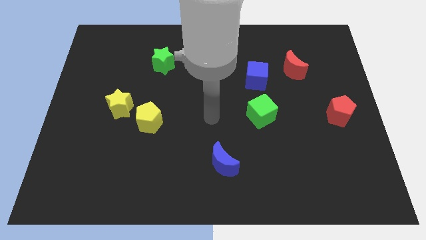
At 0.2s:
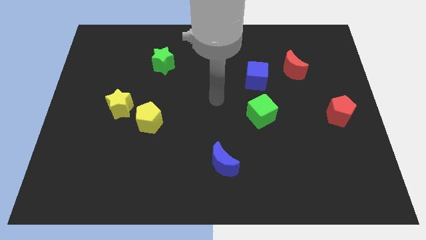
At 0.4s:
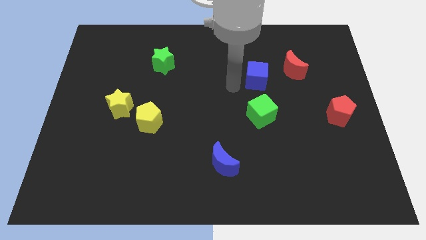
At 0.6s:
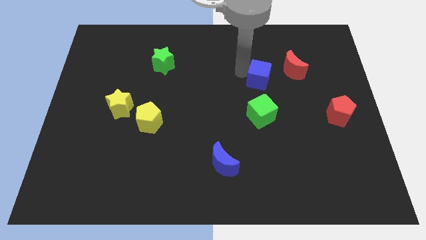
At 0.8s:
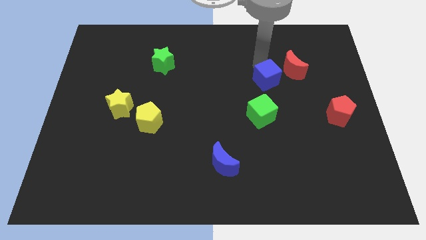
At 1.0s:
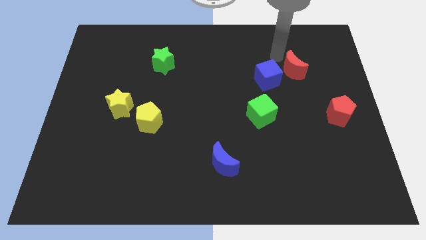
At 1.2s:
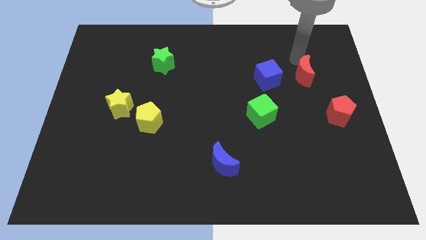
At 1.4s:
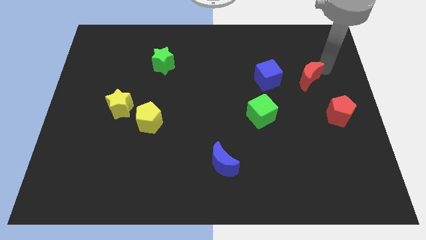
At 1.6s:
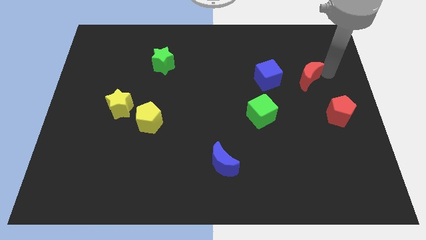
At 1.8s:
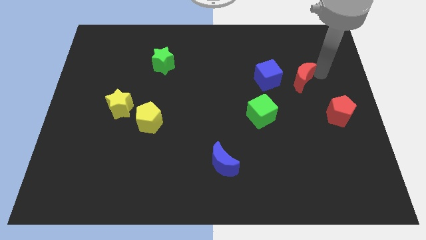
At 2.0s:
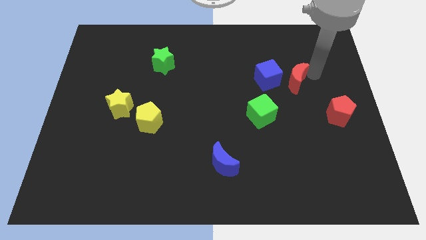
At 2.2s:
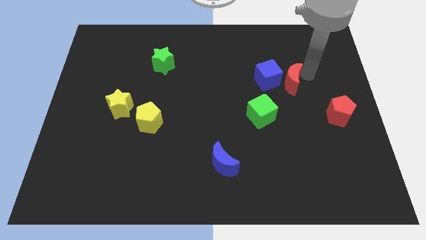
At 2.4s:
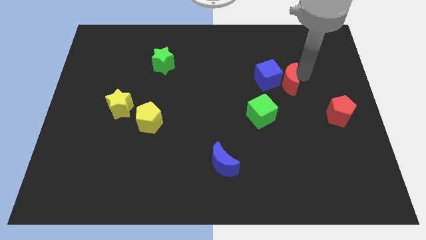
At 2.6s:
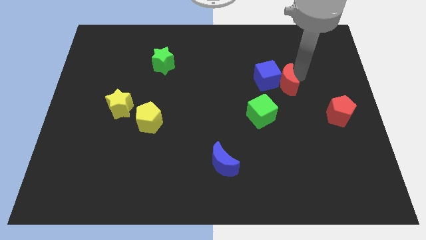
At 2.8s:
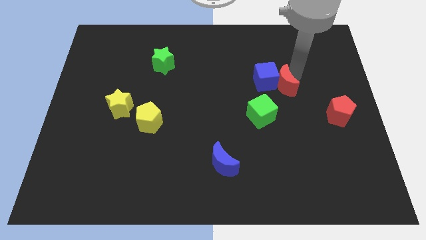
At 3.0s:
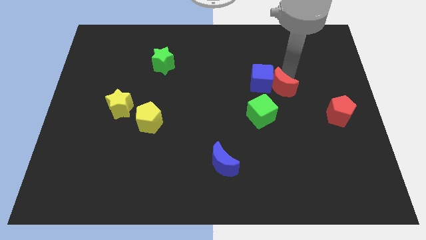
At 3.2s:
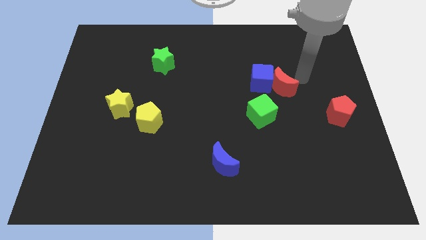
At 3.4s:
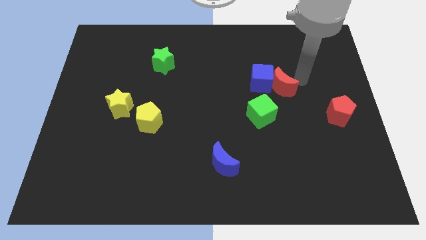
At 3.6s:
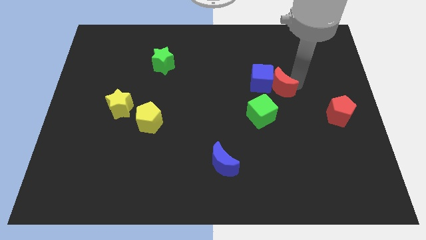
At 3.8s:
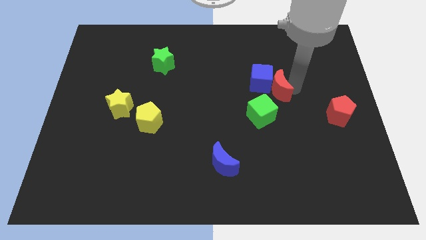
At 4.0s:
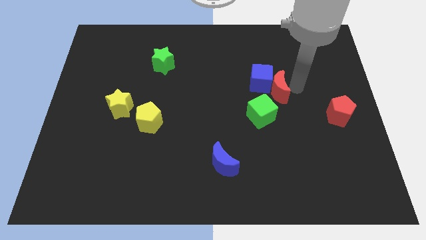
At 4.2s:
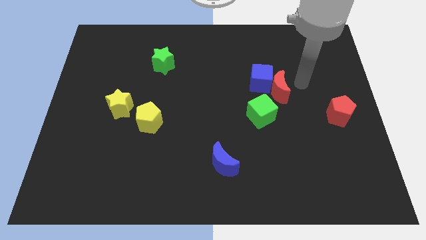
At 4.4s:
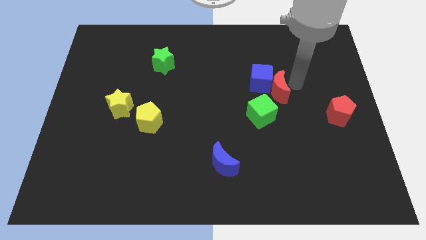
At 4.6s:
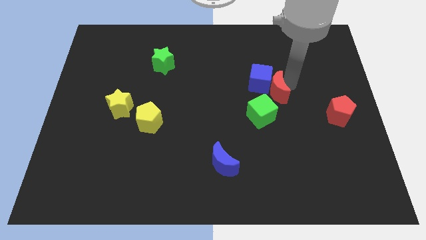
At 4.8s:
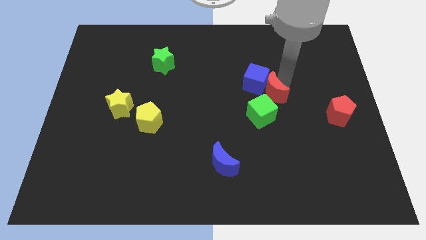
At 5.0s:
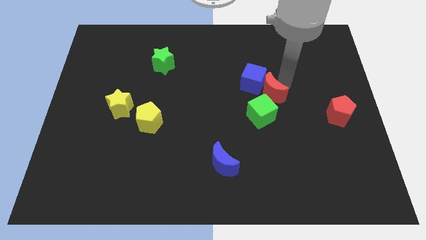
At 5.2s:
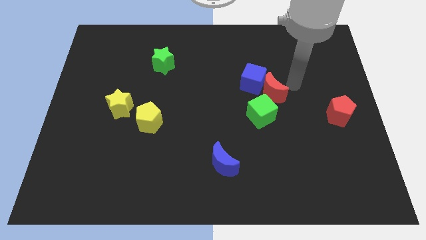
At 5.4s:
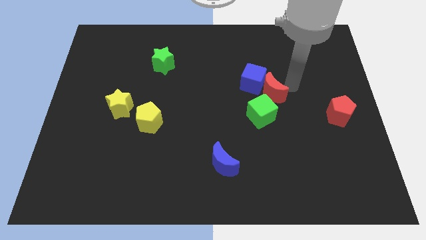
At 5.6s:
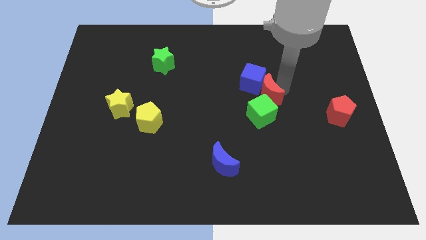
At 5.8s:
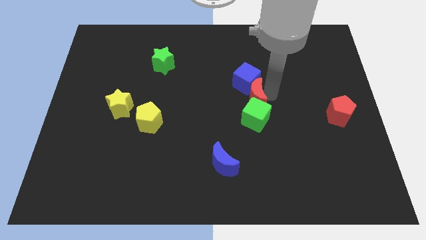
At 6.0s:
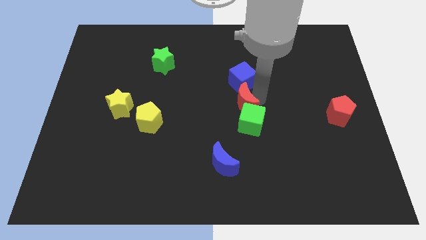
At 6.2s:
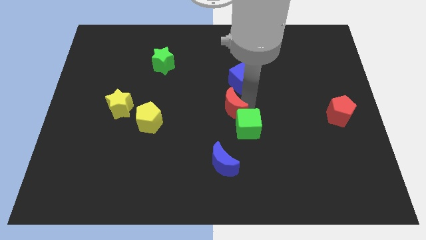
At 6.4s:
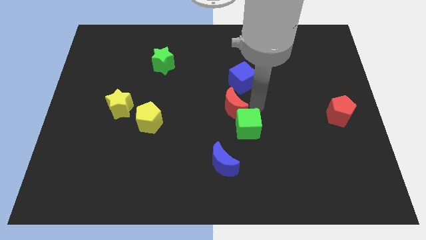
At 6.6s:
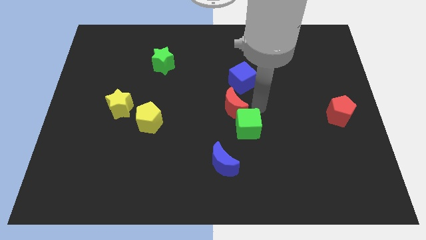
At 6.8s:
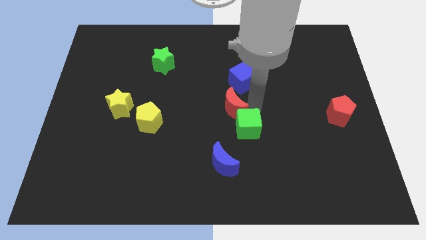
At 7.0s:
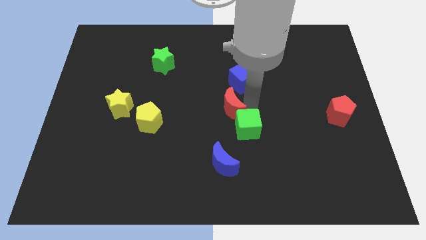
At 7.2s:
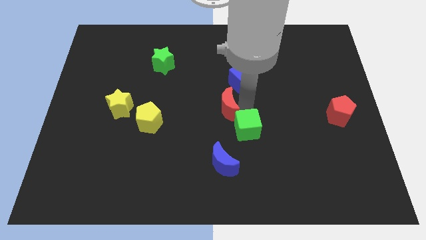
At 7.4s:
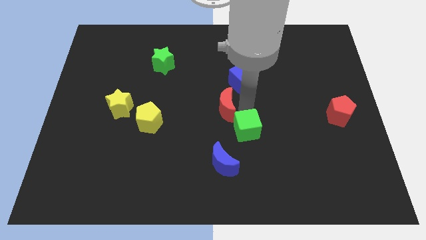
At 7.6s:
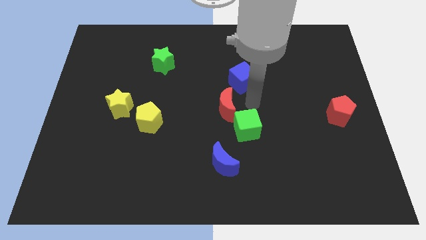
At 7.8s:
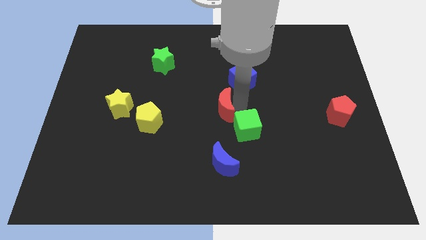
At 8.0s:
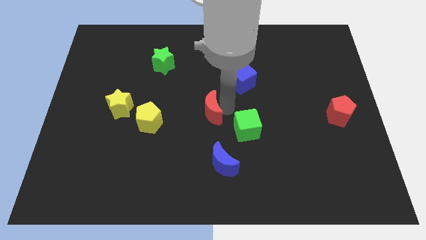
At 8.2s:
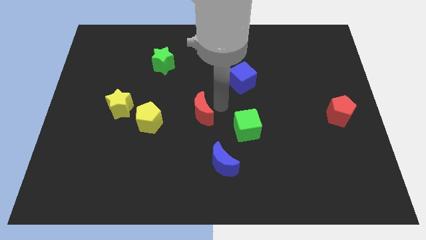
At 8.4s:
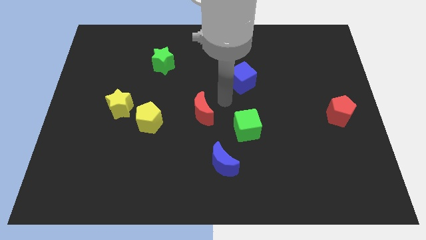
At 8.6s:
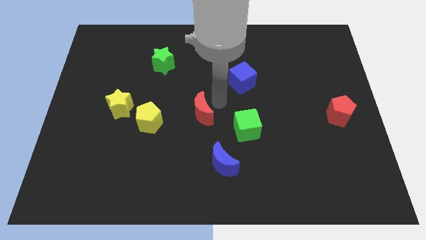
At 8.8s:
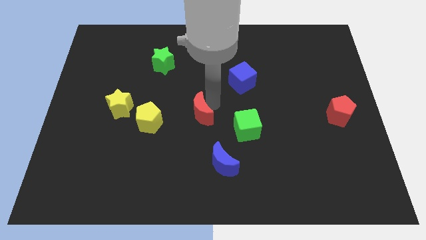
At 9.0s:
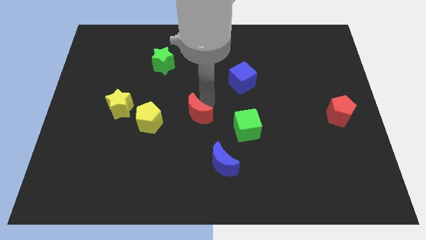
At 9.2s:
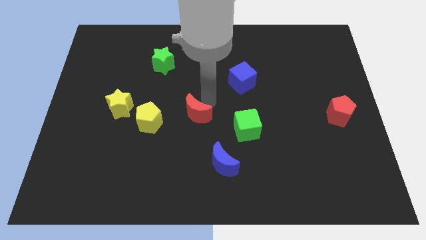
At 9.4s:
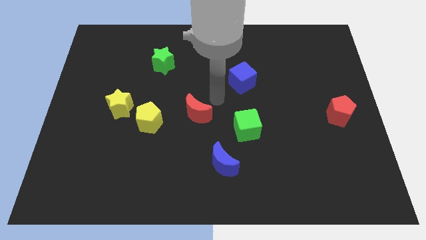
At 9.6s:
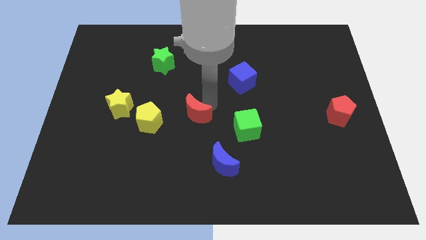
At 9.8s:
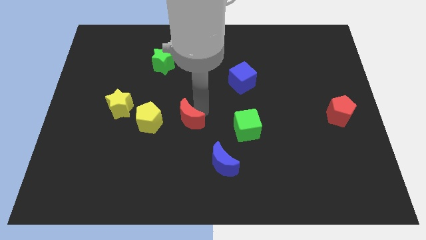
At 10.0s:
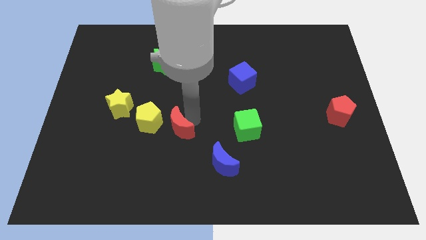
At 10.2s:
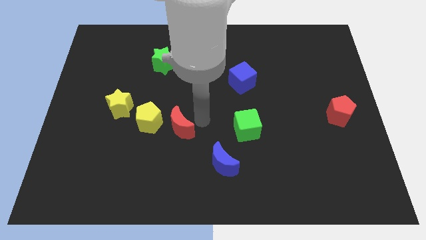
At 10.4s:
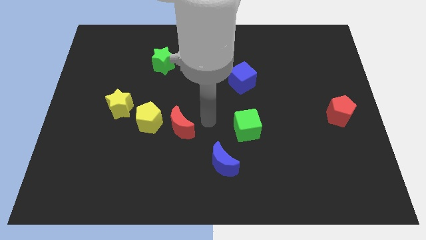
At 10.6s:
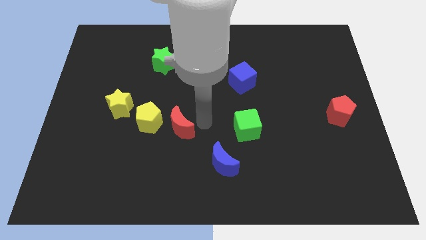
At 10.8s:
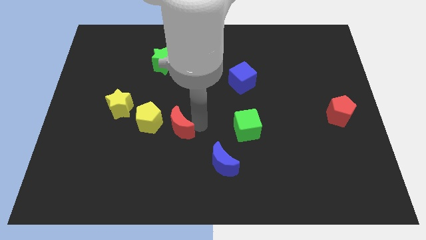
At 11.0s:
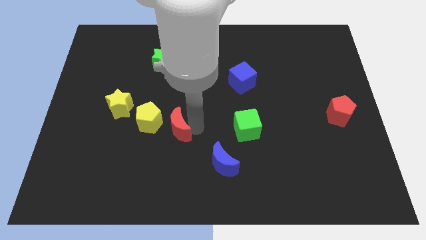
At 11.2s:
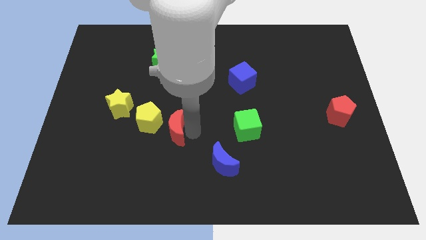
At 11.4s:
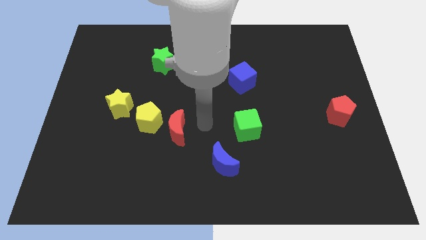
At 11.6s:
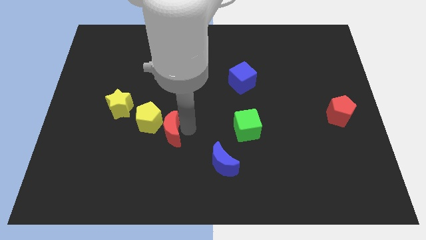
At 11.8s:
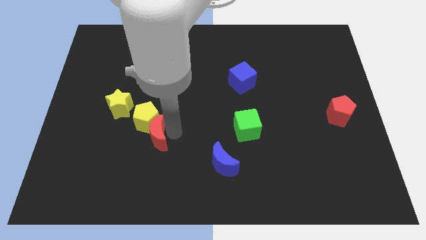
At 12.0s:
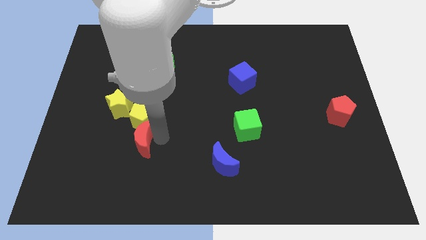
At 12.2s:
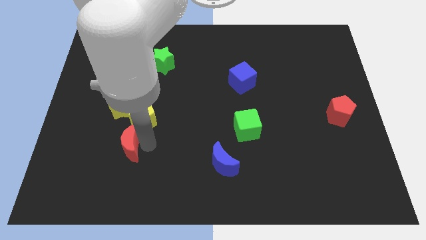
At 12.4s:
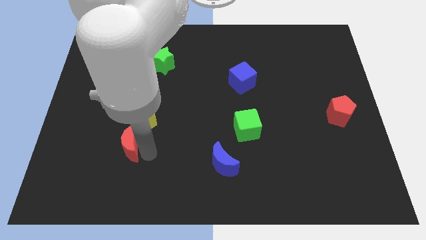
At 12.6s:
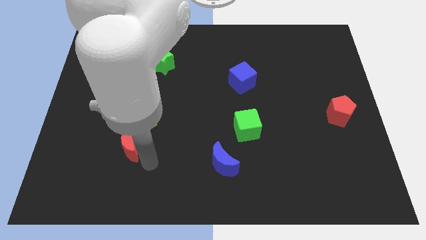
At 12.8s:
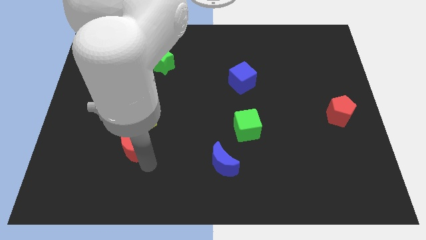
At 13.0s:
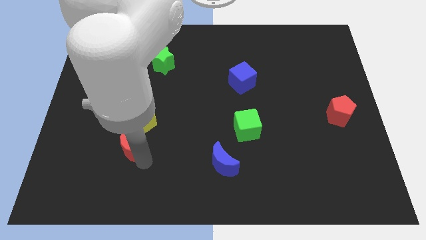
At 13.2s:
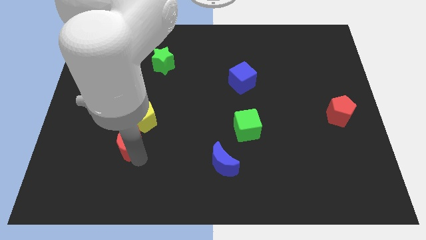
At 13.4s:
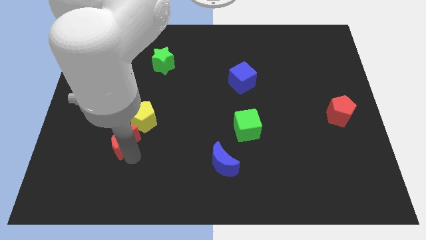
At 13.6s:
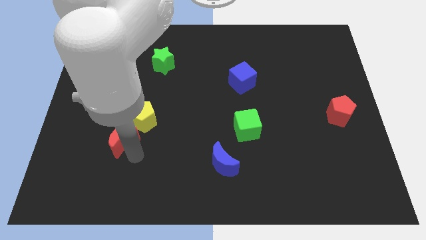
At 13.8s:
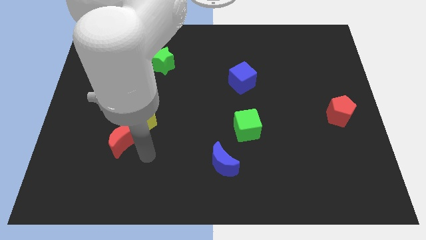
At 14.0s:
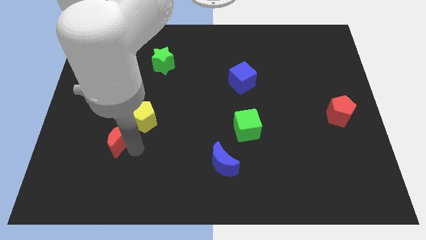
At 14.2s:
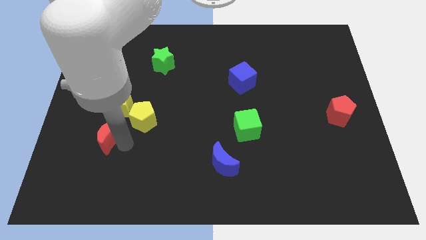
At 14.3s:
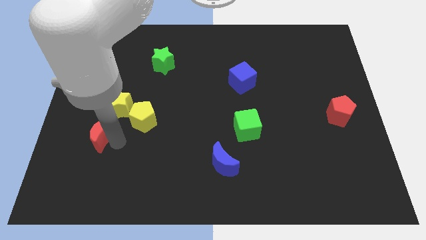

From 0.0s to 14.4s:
move the red moon diagonally down and to the left of the yellow star
